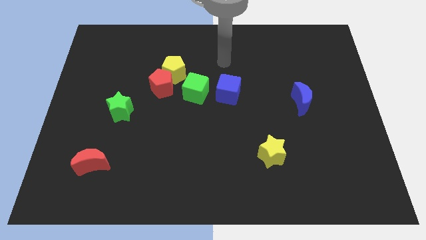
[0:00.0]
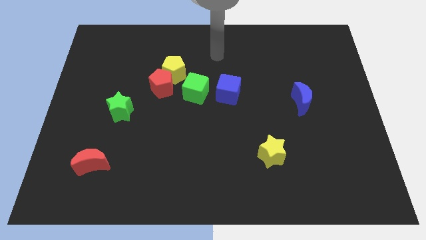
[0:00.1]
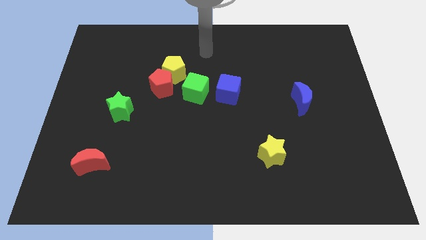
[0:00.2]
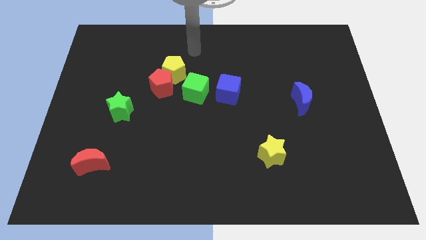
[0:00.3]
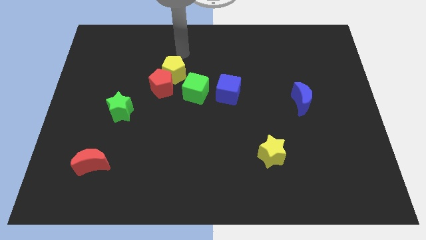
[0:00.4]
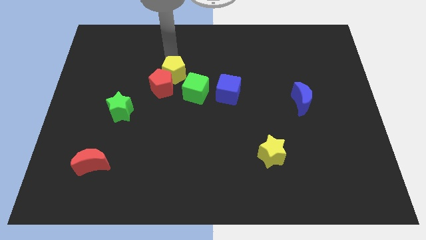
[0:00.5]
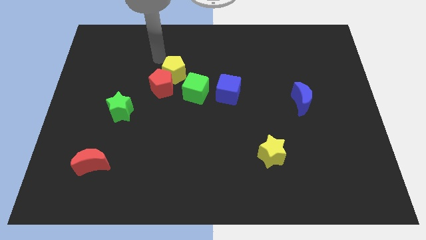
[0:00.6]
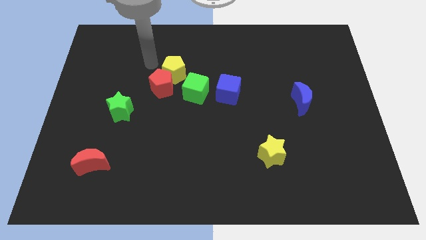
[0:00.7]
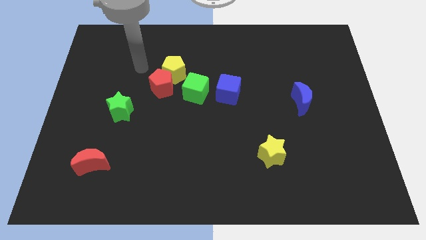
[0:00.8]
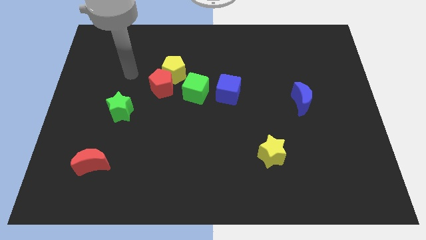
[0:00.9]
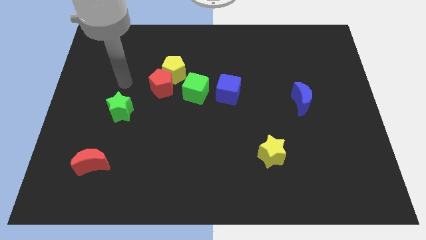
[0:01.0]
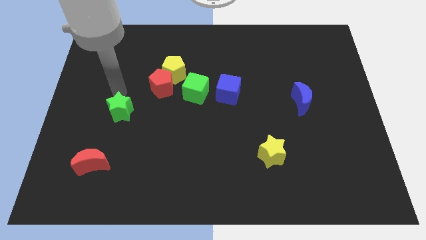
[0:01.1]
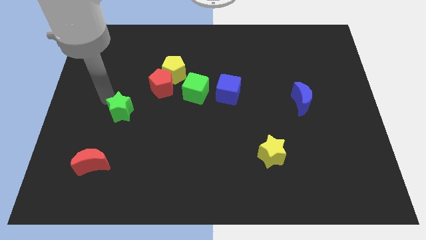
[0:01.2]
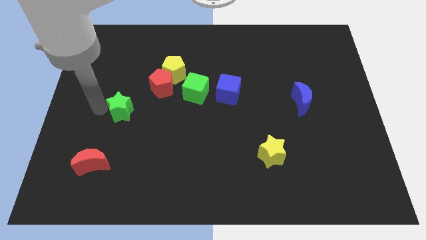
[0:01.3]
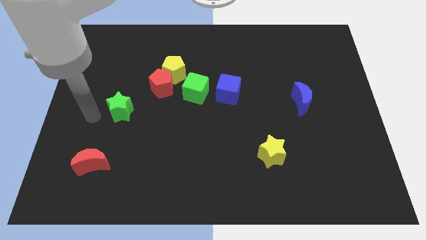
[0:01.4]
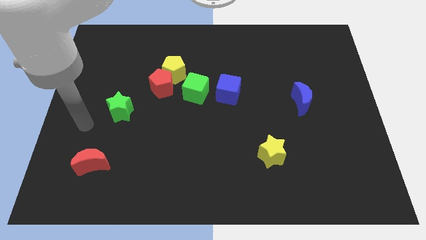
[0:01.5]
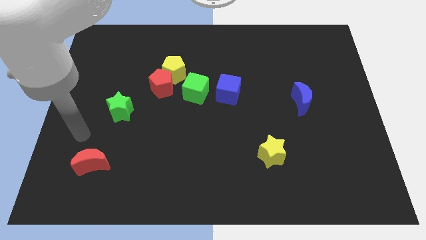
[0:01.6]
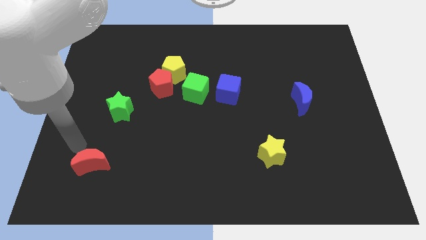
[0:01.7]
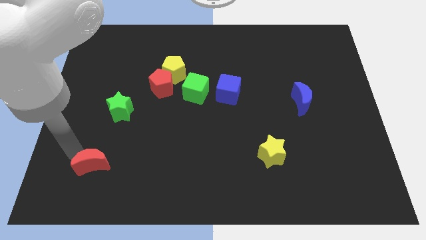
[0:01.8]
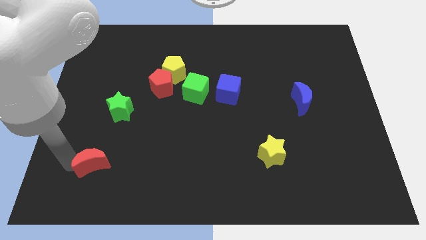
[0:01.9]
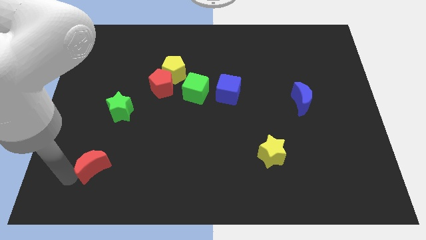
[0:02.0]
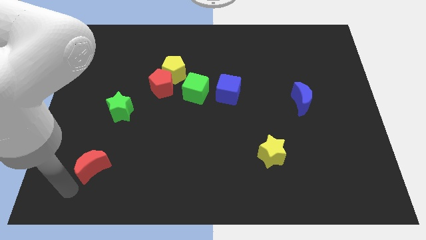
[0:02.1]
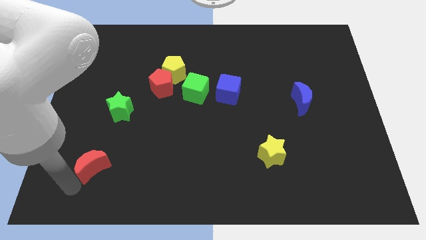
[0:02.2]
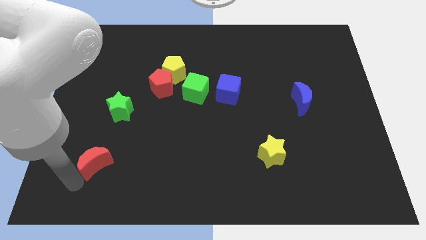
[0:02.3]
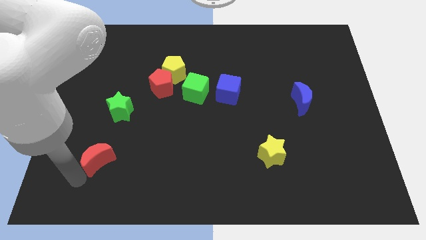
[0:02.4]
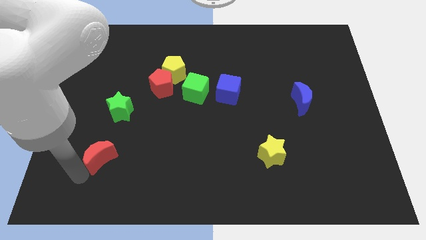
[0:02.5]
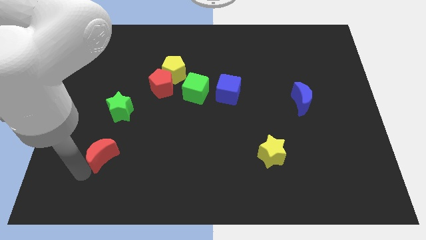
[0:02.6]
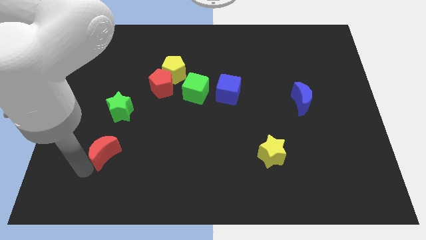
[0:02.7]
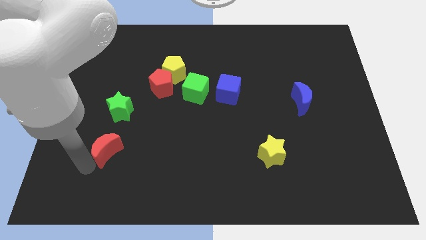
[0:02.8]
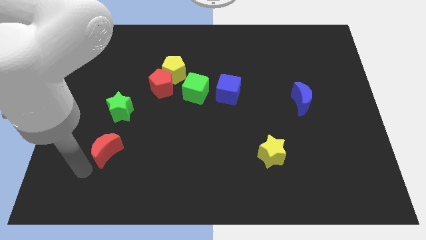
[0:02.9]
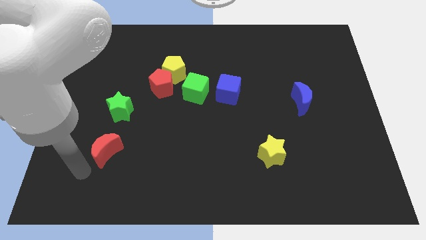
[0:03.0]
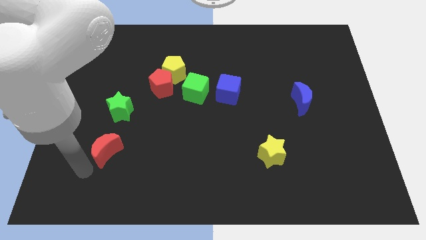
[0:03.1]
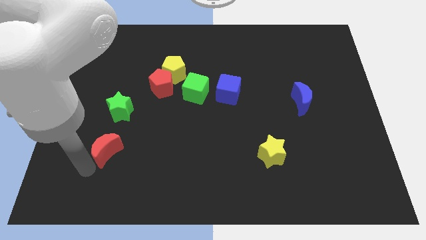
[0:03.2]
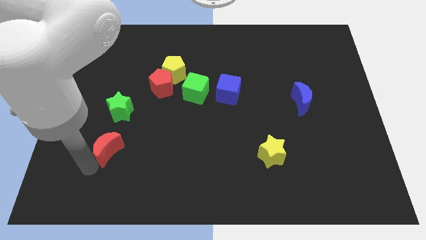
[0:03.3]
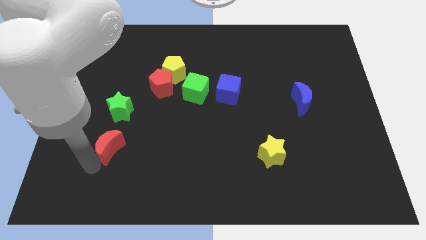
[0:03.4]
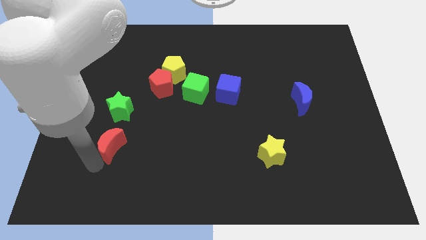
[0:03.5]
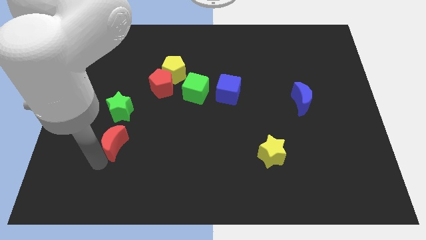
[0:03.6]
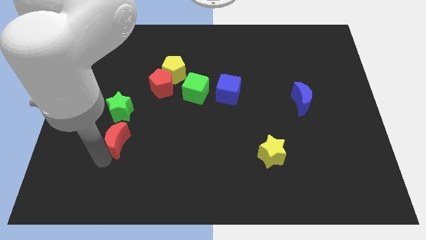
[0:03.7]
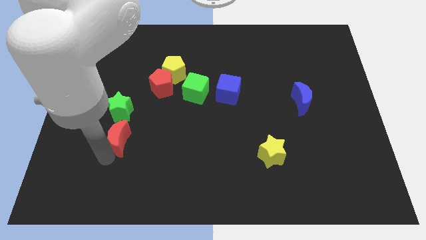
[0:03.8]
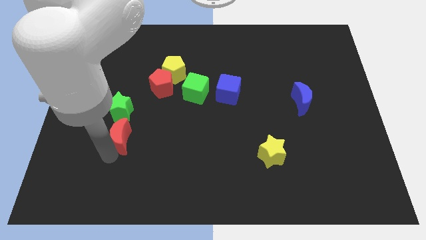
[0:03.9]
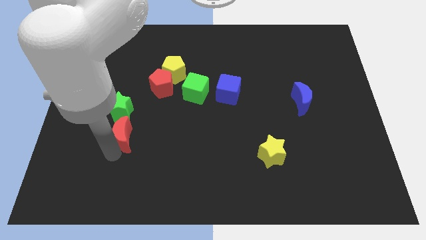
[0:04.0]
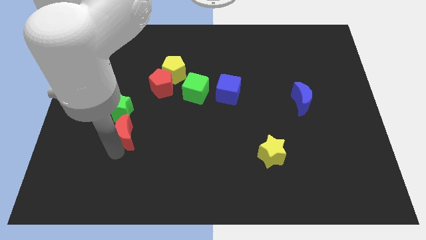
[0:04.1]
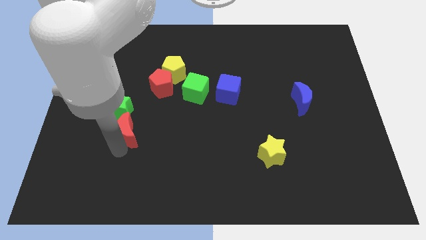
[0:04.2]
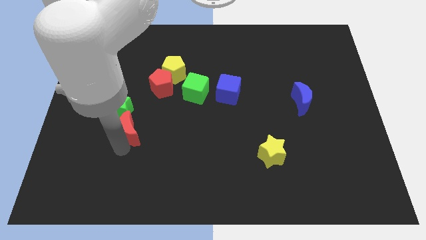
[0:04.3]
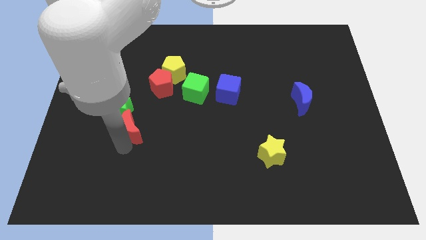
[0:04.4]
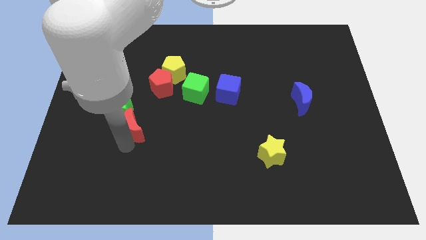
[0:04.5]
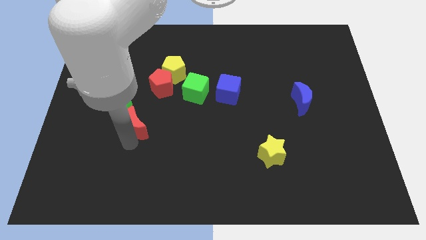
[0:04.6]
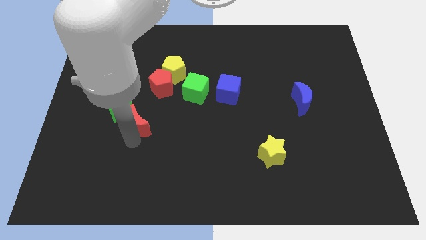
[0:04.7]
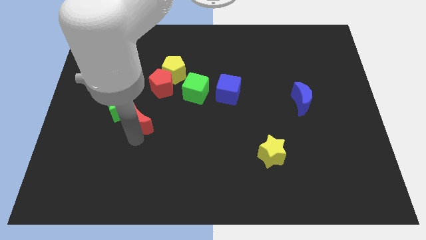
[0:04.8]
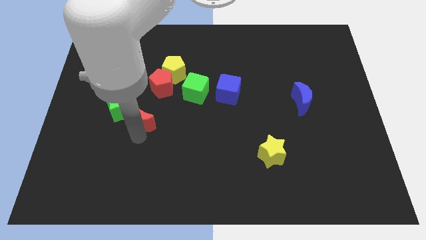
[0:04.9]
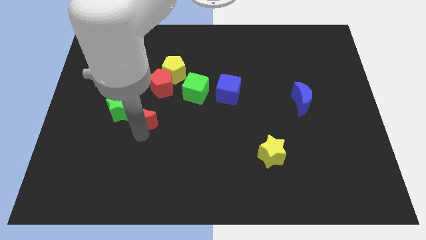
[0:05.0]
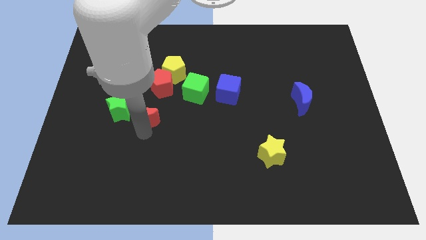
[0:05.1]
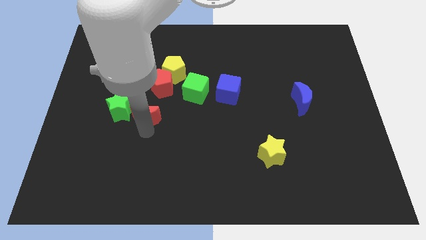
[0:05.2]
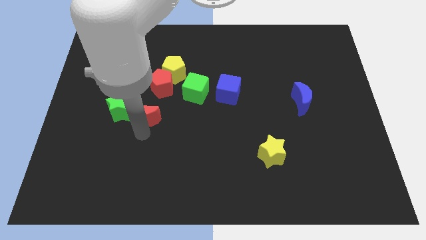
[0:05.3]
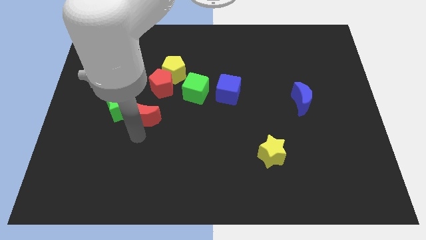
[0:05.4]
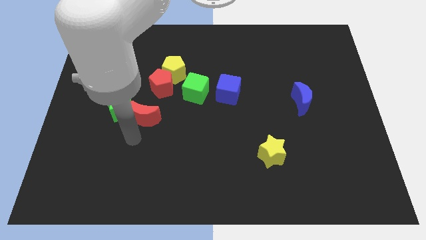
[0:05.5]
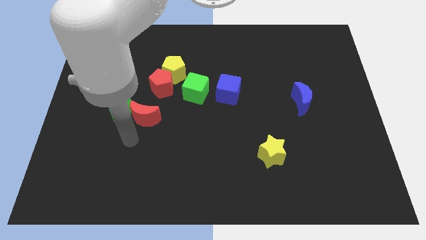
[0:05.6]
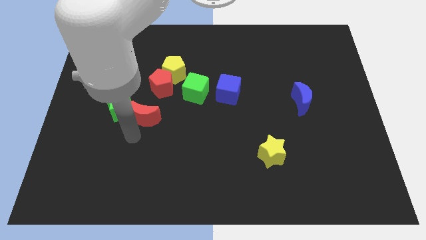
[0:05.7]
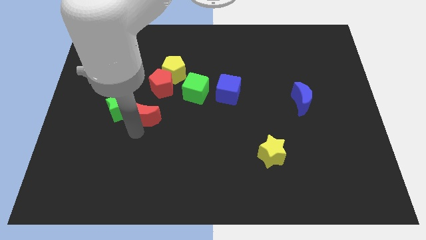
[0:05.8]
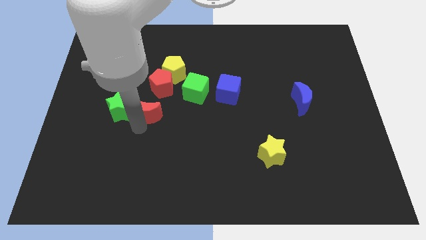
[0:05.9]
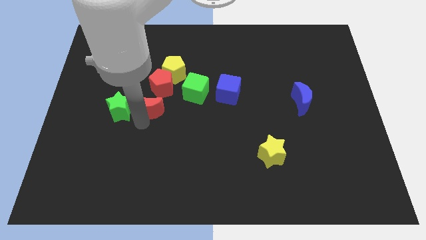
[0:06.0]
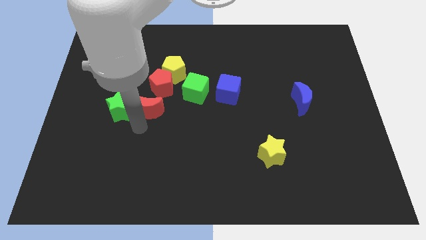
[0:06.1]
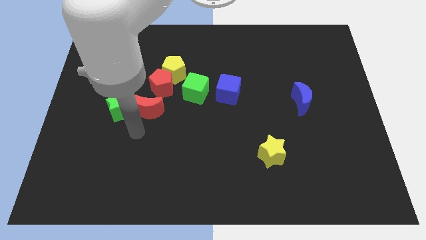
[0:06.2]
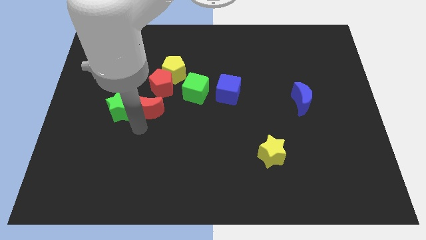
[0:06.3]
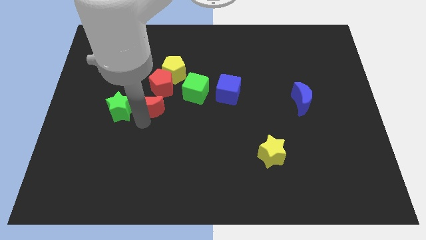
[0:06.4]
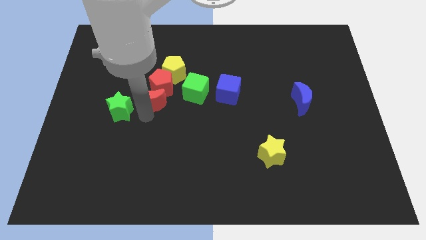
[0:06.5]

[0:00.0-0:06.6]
move the red moon towards the red pentagon

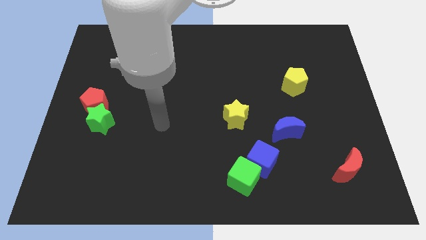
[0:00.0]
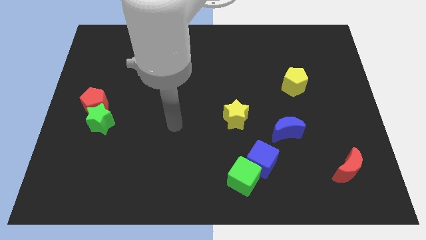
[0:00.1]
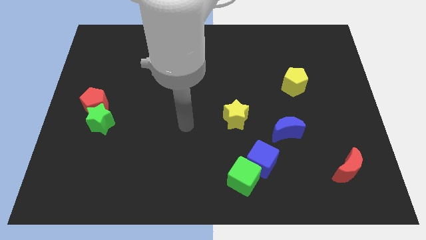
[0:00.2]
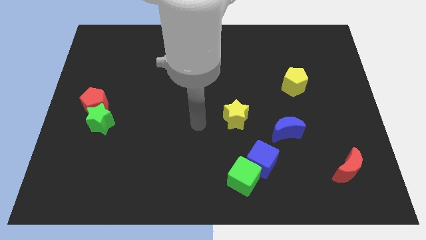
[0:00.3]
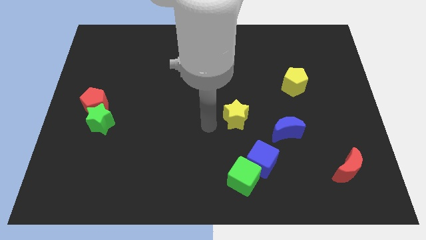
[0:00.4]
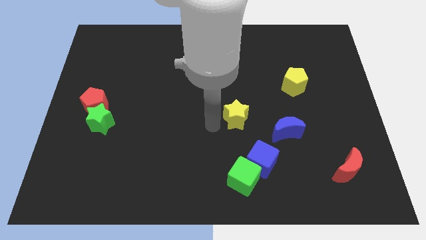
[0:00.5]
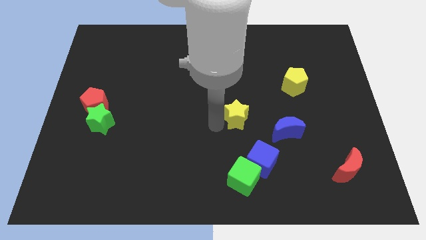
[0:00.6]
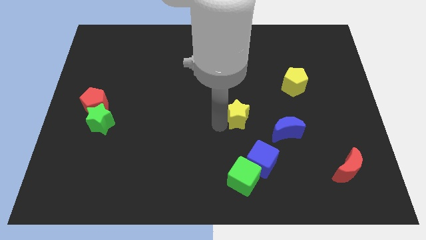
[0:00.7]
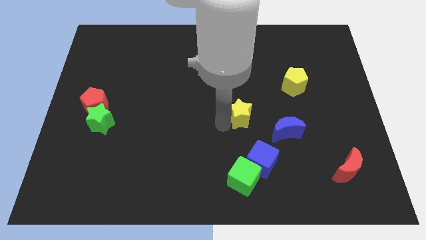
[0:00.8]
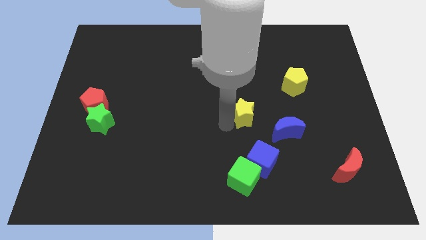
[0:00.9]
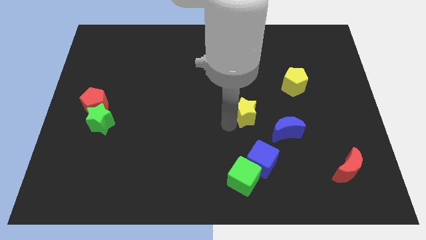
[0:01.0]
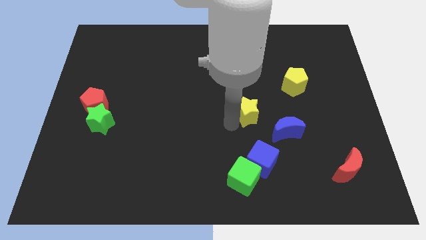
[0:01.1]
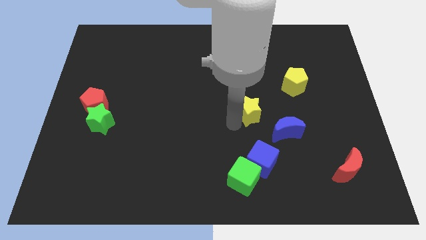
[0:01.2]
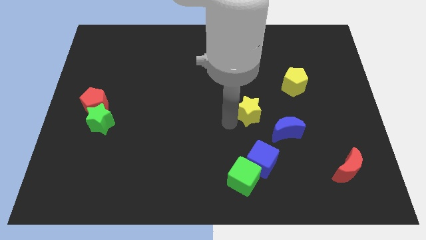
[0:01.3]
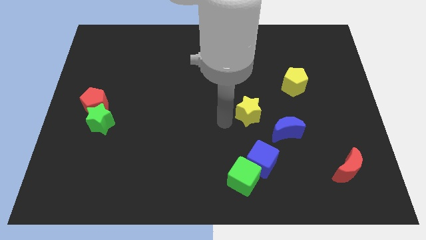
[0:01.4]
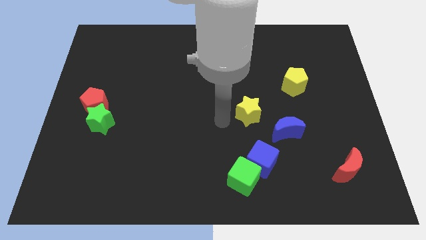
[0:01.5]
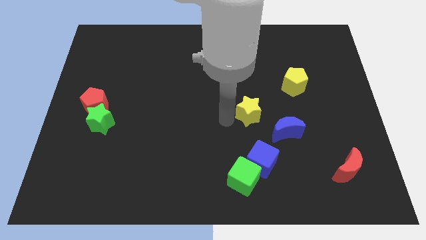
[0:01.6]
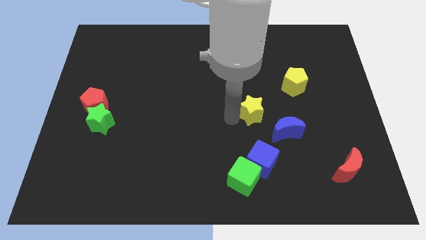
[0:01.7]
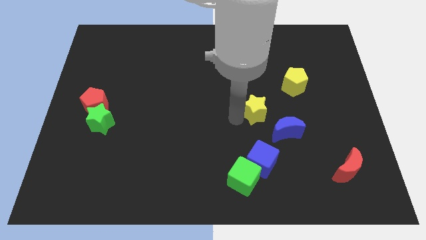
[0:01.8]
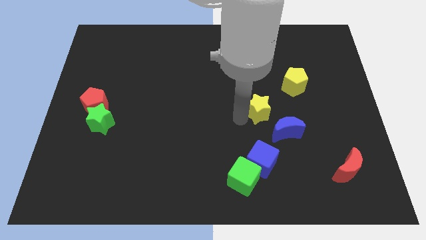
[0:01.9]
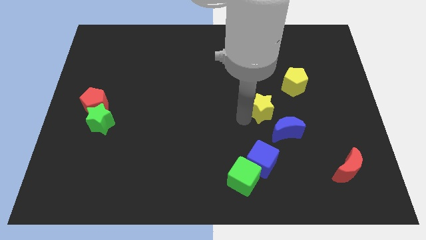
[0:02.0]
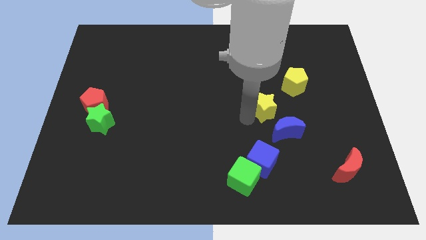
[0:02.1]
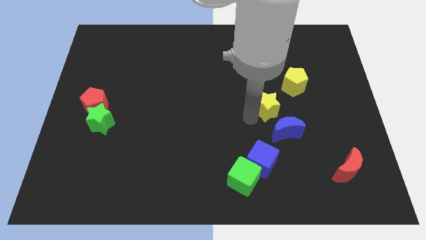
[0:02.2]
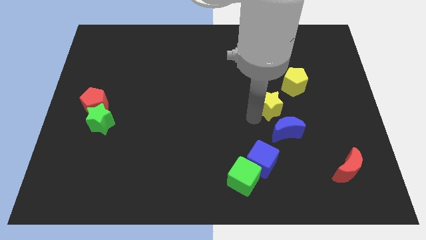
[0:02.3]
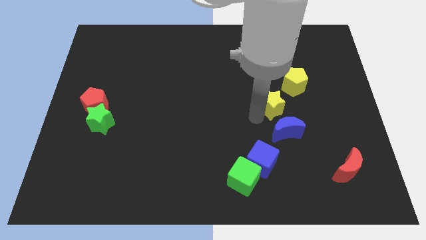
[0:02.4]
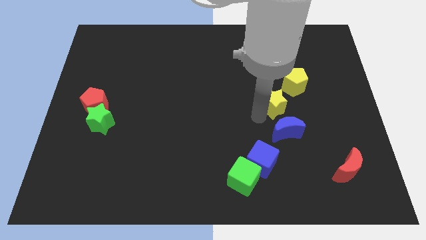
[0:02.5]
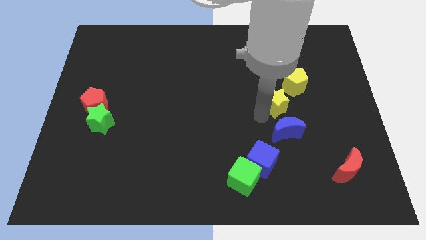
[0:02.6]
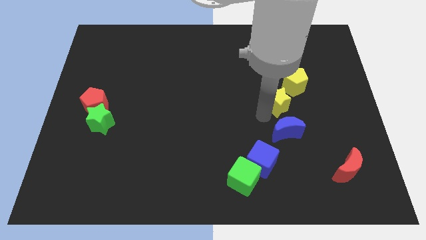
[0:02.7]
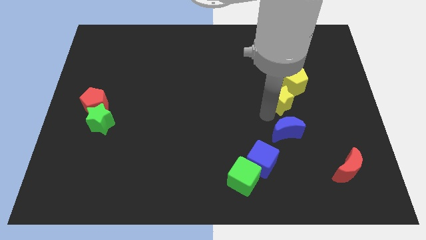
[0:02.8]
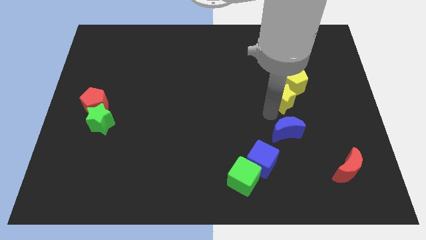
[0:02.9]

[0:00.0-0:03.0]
slide the yellow star towards the yellow pentagon
